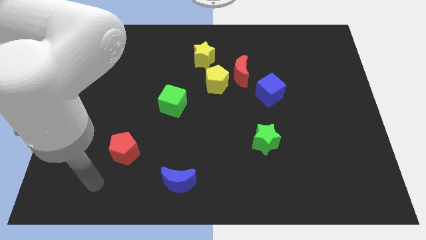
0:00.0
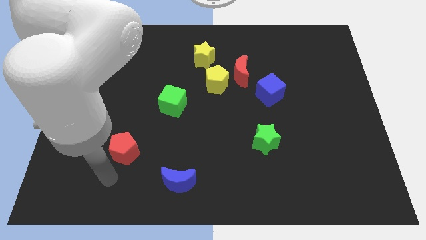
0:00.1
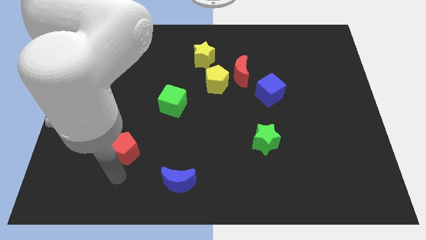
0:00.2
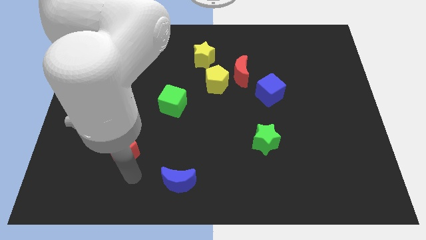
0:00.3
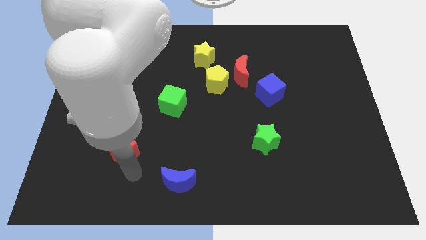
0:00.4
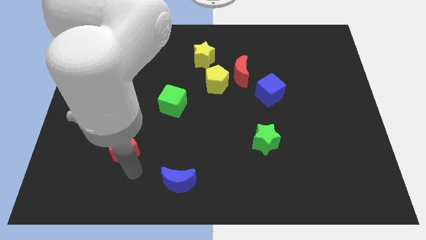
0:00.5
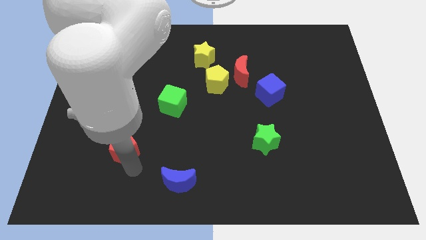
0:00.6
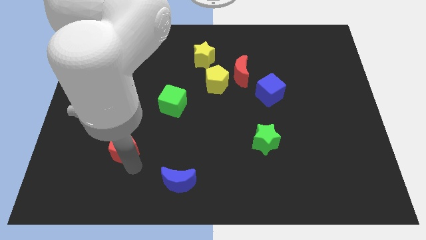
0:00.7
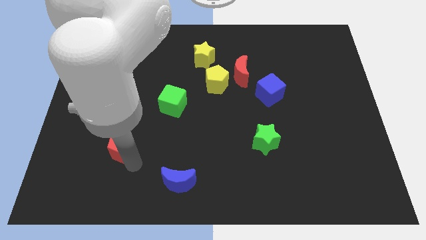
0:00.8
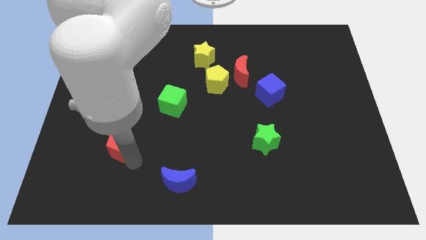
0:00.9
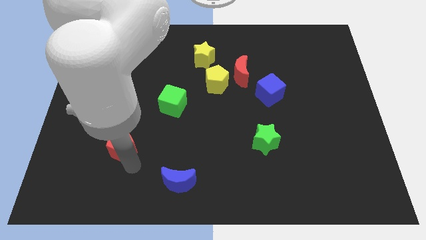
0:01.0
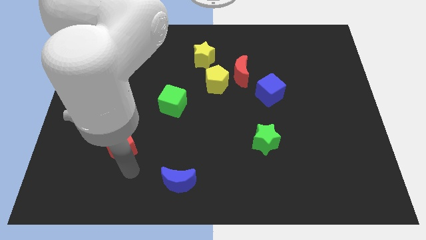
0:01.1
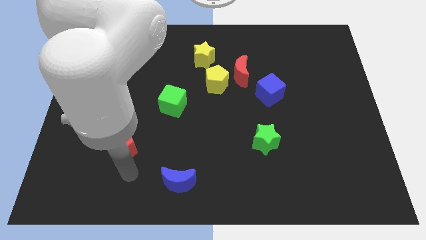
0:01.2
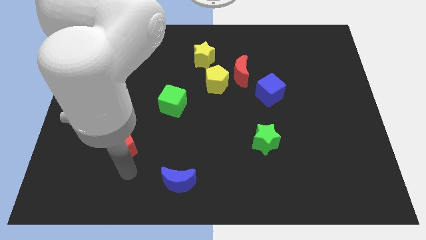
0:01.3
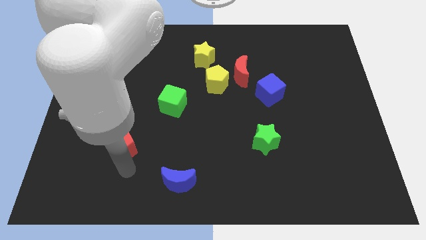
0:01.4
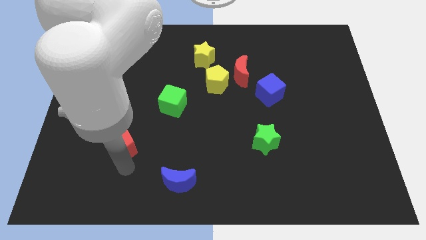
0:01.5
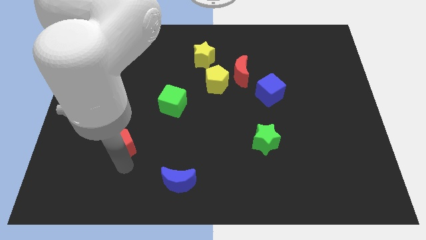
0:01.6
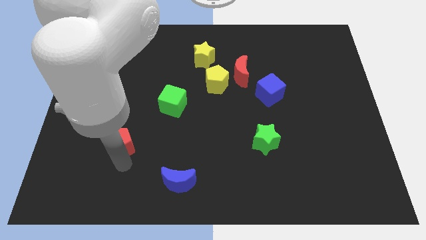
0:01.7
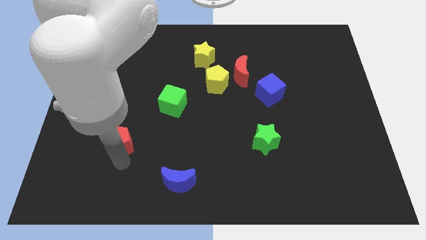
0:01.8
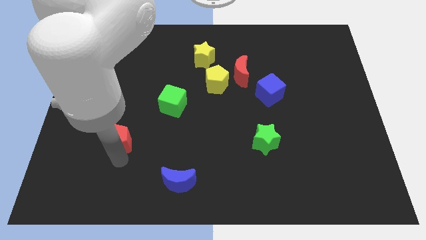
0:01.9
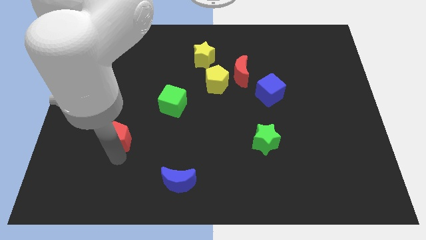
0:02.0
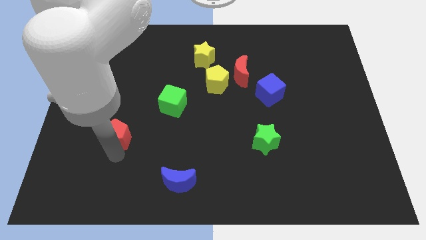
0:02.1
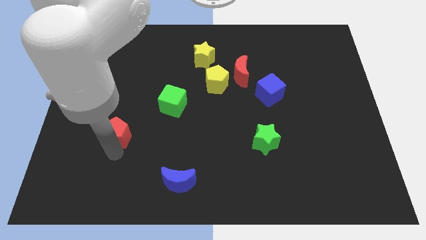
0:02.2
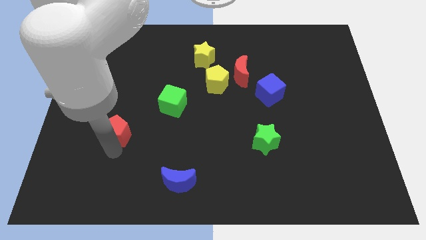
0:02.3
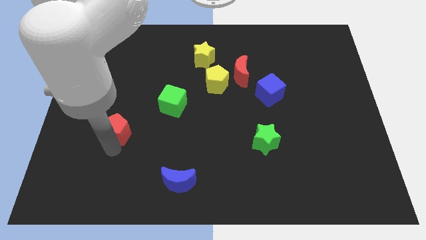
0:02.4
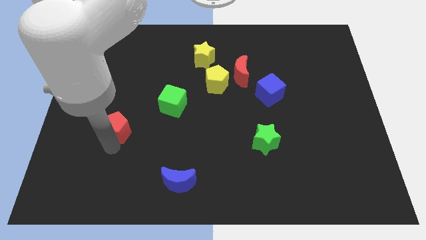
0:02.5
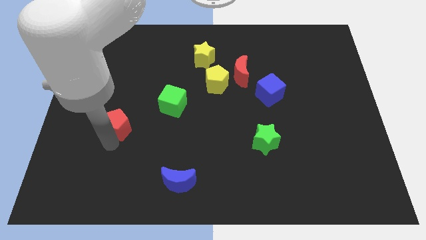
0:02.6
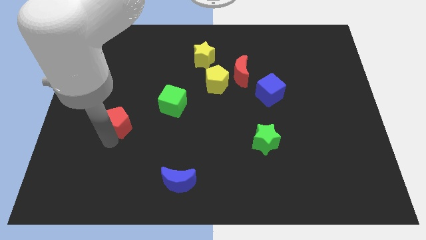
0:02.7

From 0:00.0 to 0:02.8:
slide the red pentagon upwards a little bit

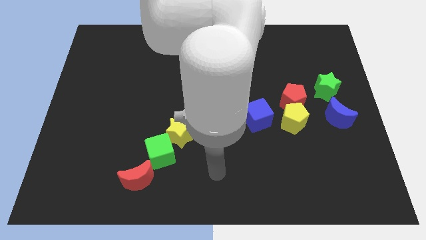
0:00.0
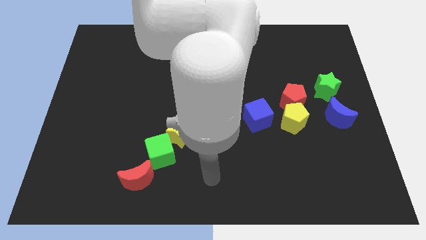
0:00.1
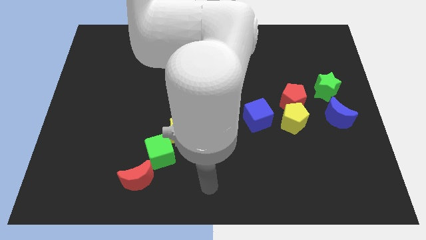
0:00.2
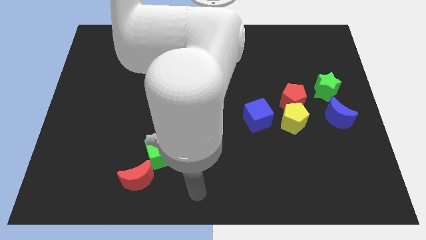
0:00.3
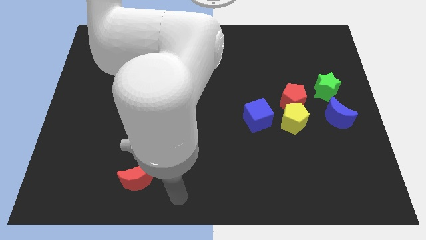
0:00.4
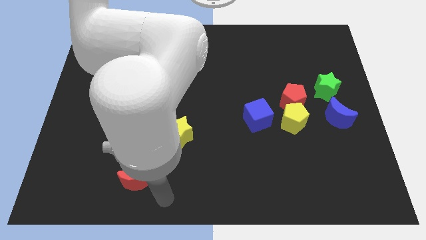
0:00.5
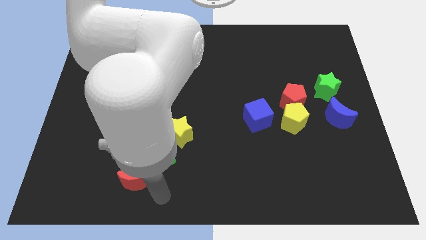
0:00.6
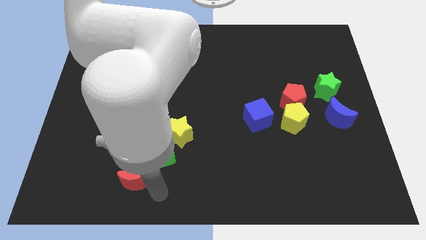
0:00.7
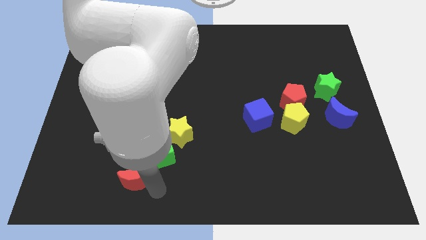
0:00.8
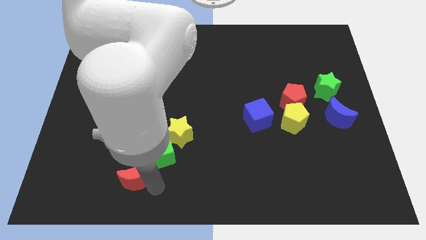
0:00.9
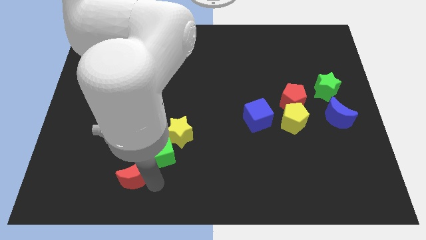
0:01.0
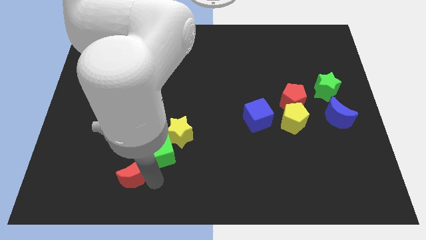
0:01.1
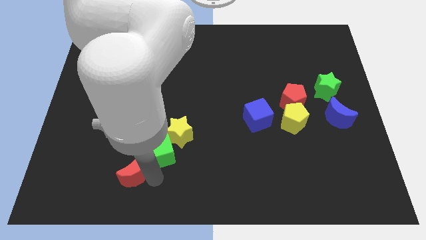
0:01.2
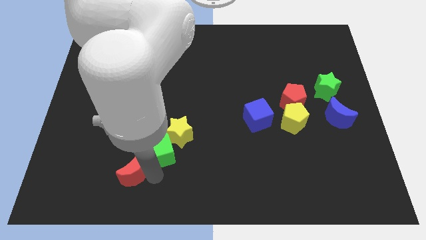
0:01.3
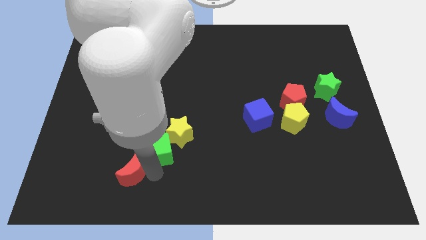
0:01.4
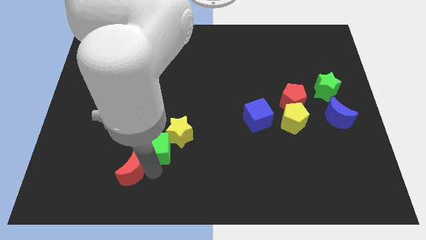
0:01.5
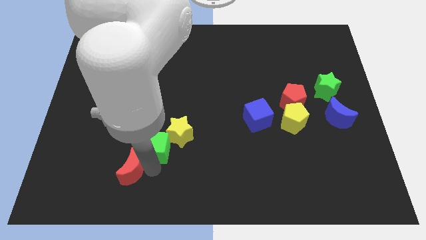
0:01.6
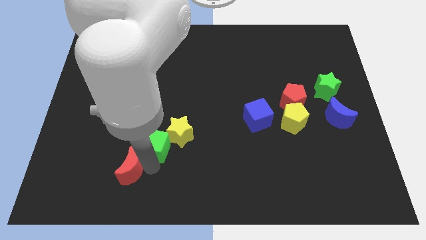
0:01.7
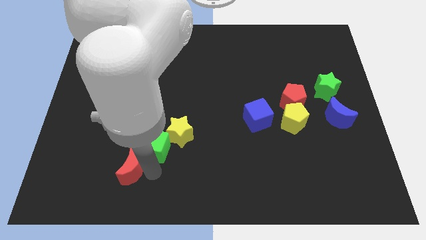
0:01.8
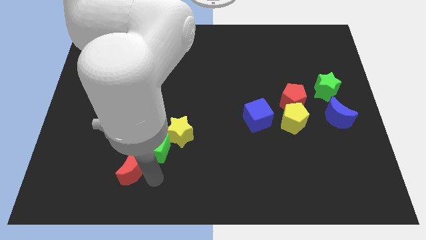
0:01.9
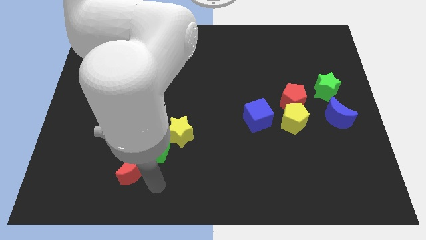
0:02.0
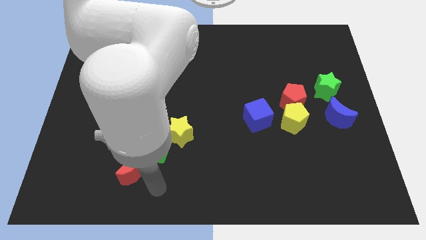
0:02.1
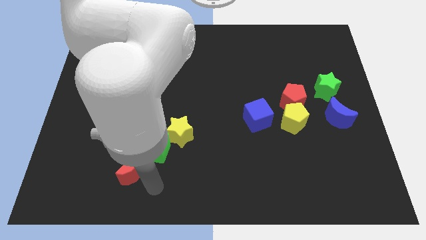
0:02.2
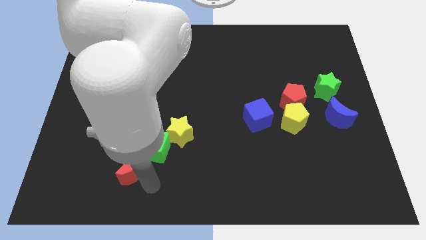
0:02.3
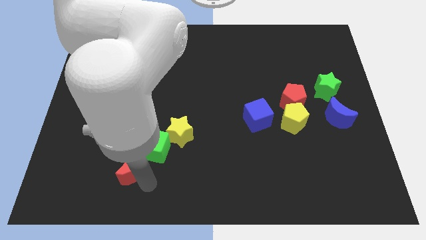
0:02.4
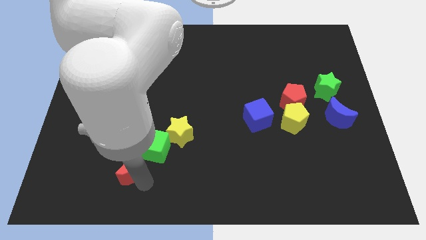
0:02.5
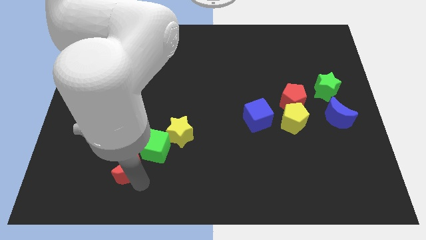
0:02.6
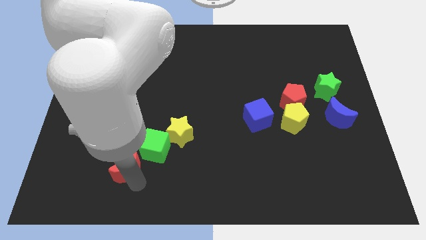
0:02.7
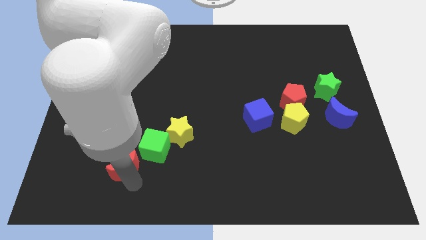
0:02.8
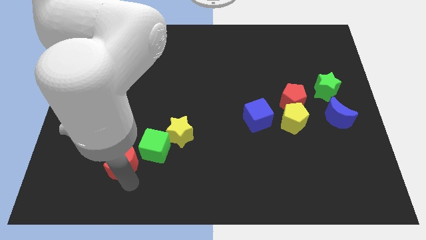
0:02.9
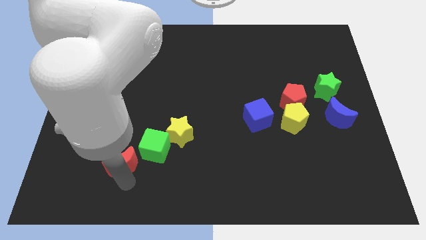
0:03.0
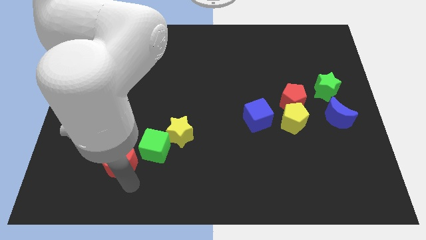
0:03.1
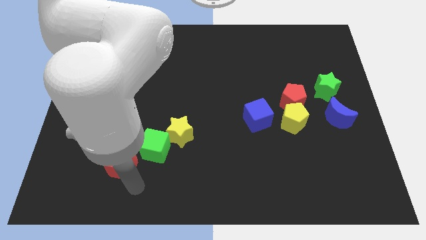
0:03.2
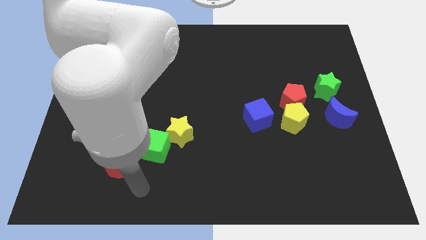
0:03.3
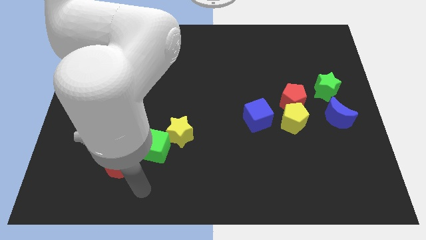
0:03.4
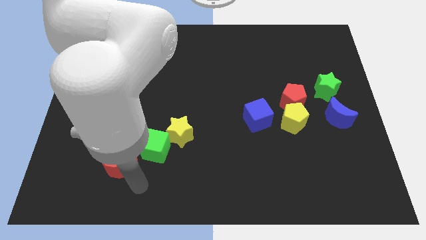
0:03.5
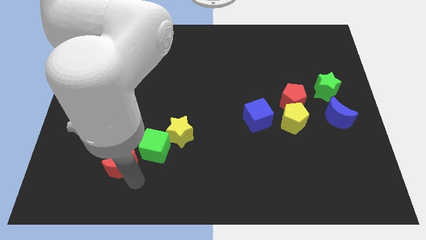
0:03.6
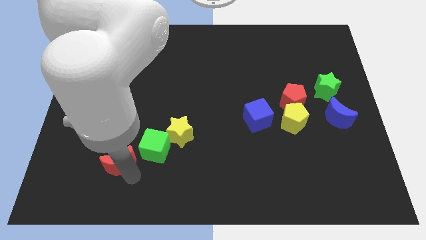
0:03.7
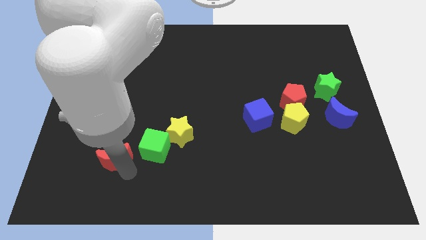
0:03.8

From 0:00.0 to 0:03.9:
slightly move the red moon up and left diagonally

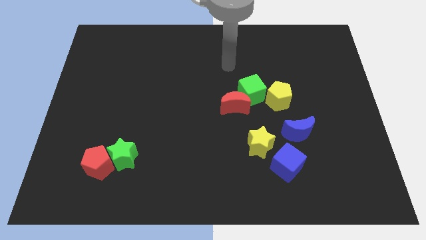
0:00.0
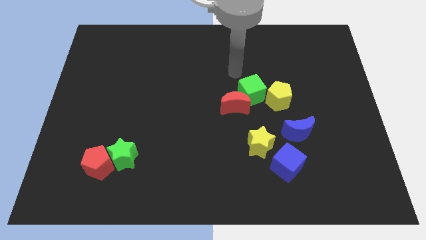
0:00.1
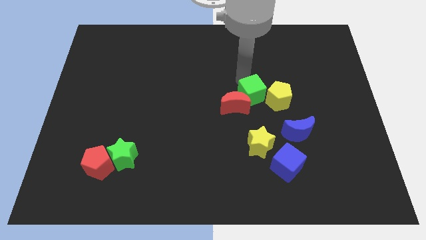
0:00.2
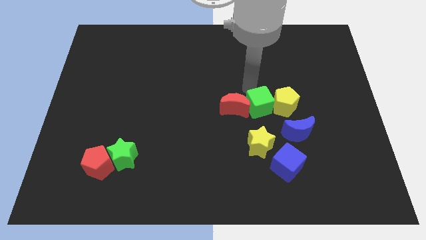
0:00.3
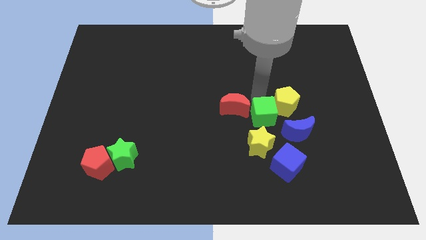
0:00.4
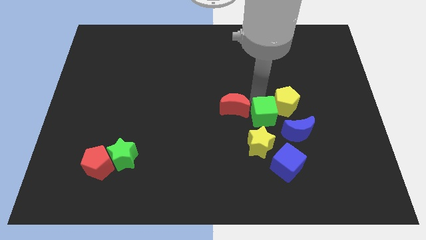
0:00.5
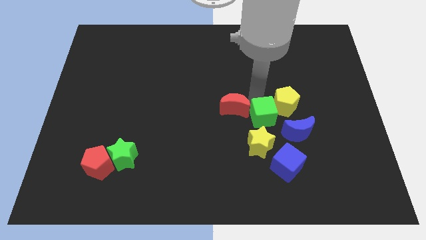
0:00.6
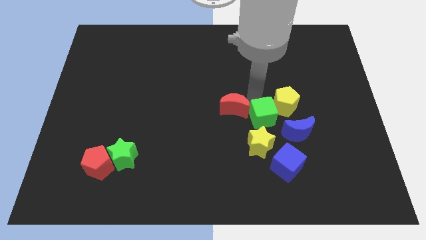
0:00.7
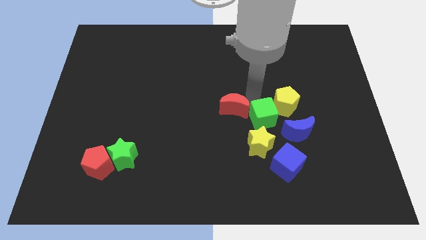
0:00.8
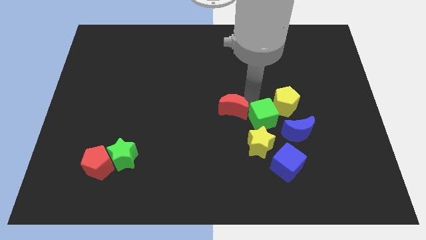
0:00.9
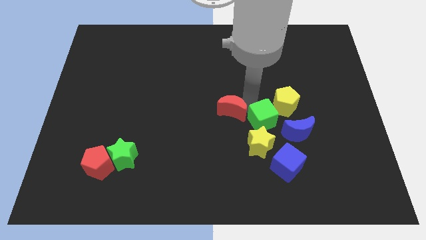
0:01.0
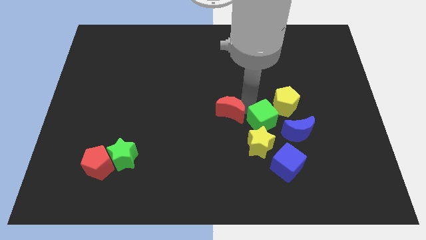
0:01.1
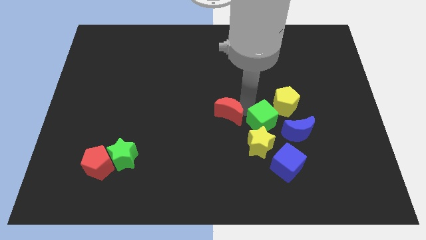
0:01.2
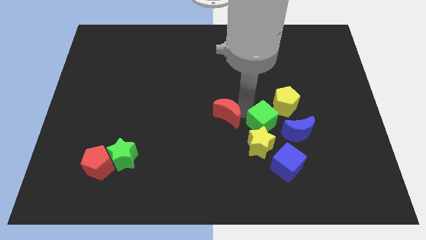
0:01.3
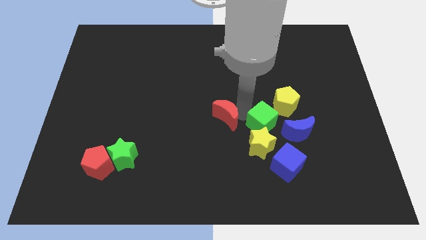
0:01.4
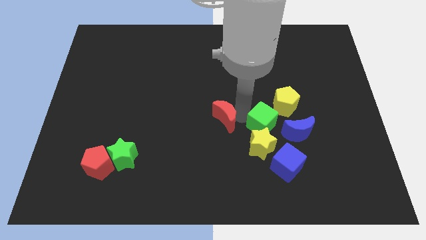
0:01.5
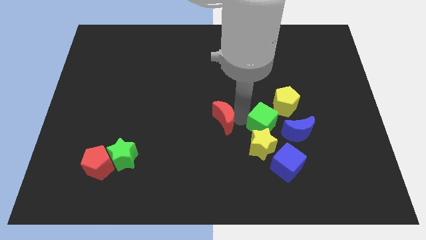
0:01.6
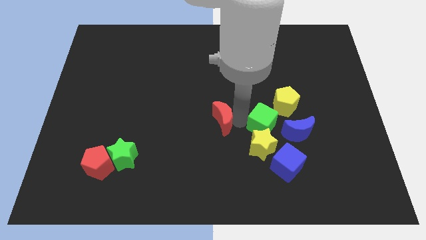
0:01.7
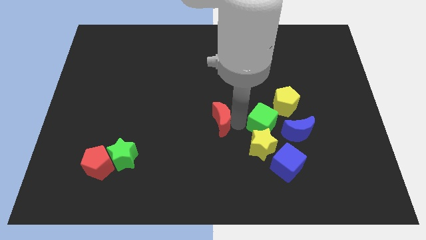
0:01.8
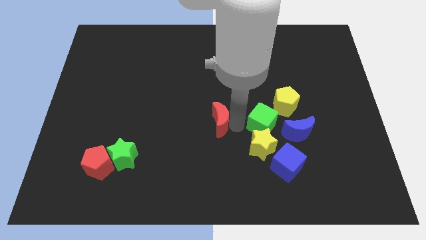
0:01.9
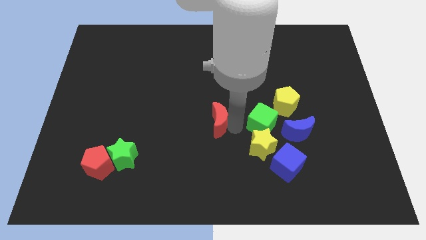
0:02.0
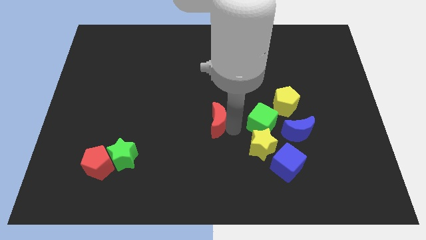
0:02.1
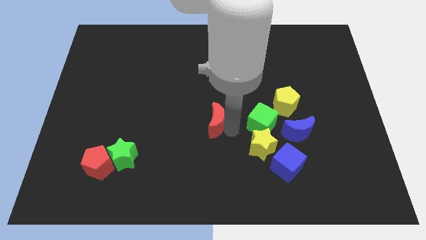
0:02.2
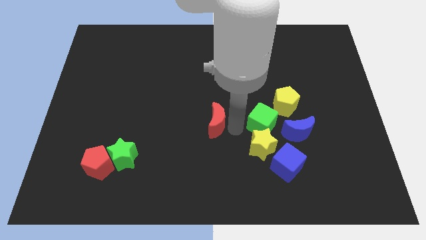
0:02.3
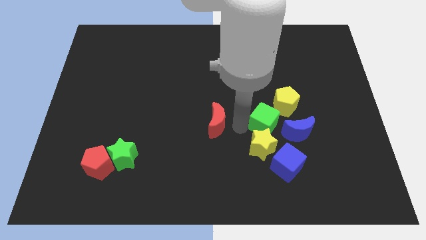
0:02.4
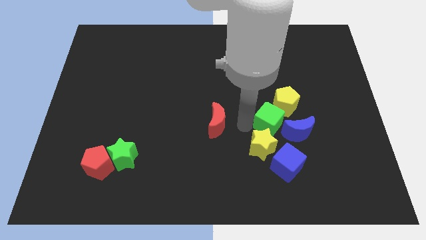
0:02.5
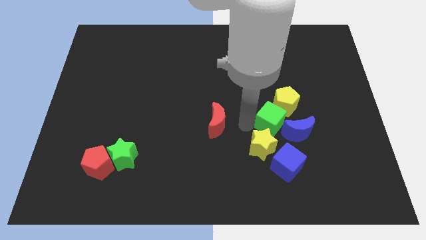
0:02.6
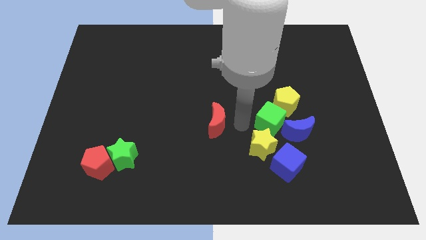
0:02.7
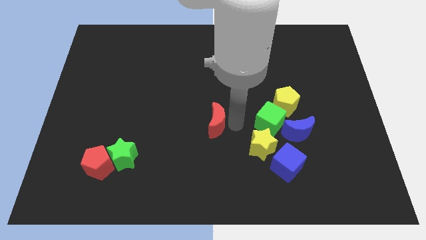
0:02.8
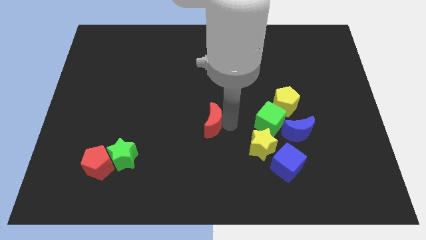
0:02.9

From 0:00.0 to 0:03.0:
move the red moon a bit diagonally down and left
